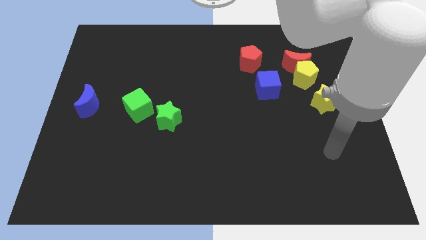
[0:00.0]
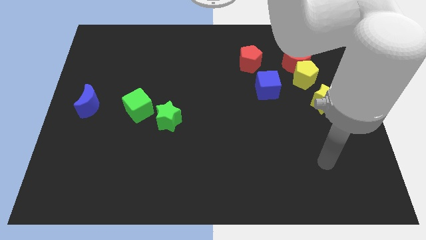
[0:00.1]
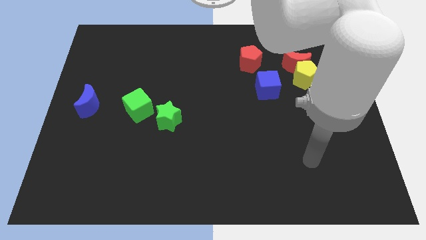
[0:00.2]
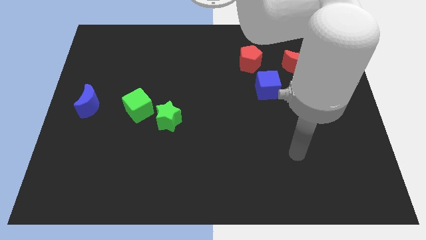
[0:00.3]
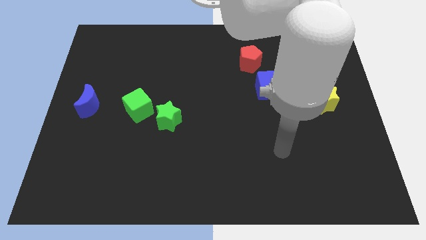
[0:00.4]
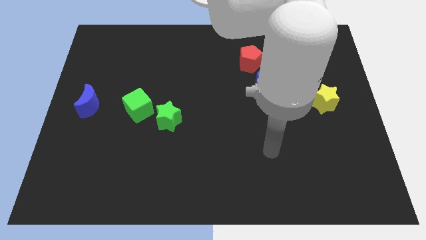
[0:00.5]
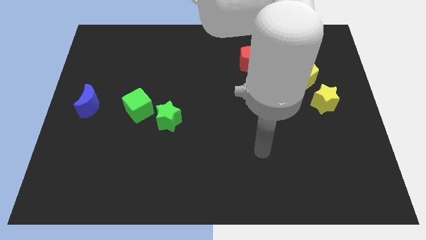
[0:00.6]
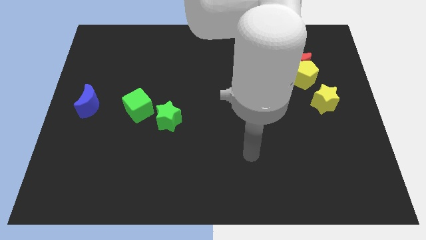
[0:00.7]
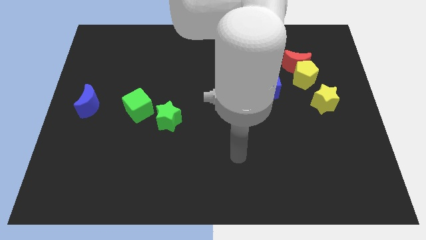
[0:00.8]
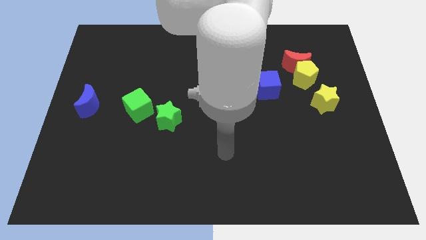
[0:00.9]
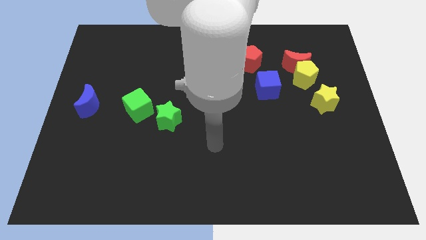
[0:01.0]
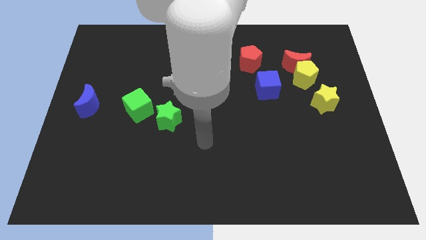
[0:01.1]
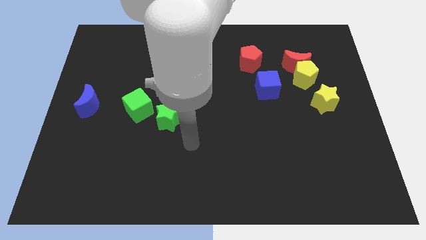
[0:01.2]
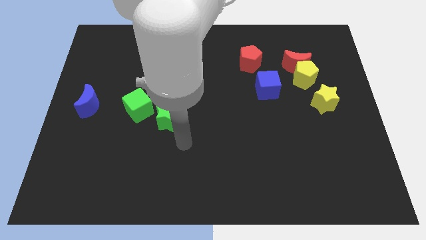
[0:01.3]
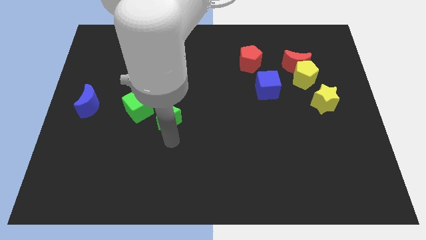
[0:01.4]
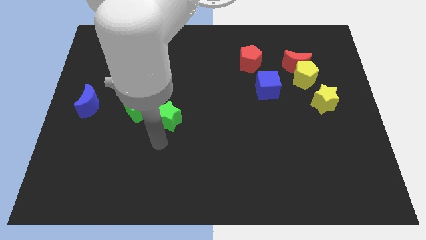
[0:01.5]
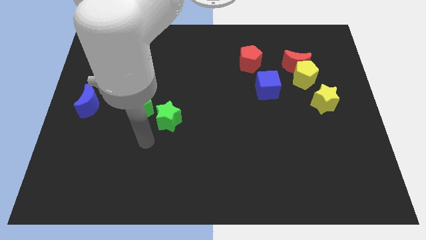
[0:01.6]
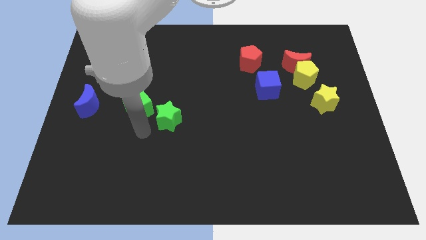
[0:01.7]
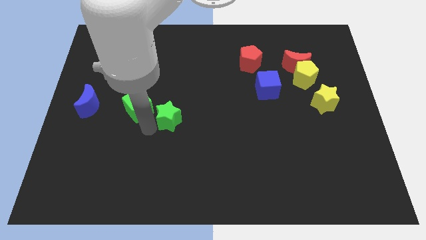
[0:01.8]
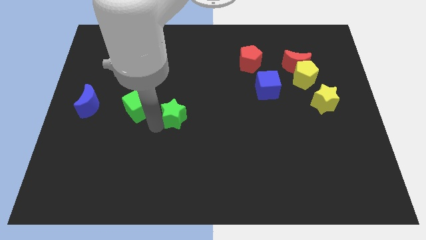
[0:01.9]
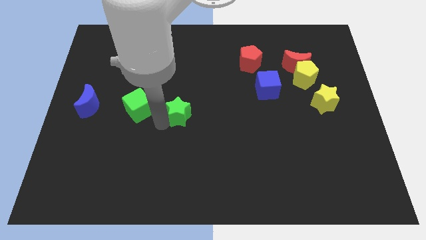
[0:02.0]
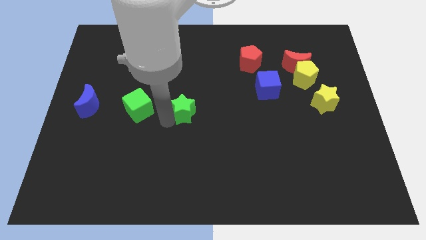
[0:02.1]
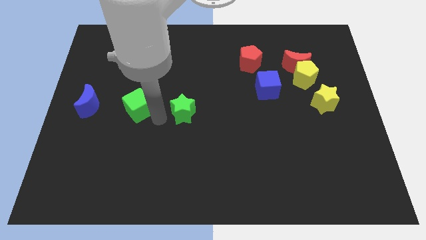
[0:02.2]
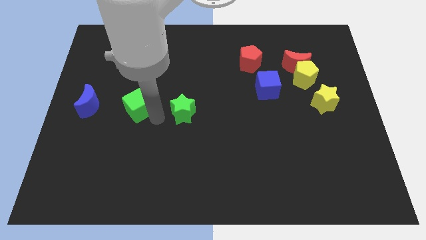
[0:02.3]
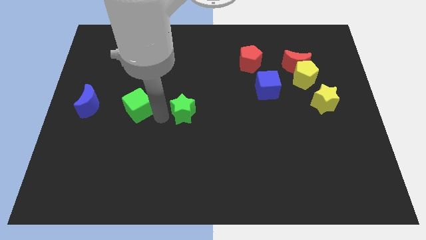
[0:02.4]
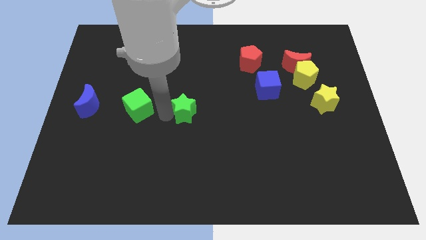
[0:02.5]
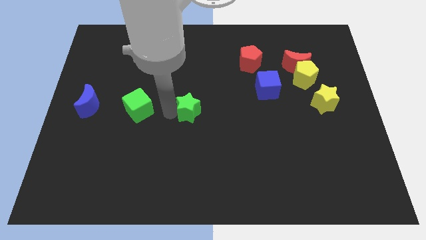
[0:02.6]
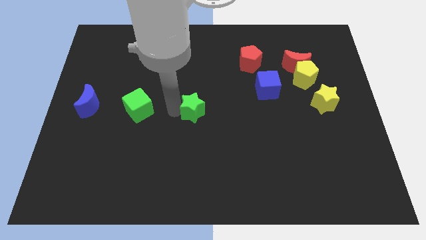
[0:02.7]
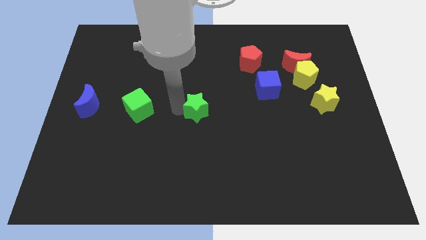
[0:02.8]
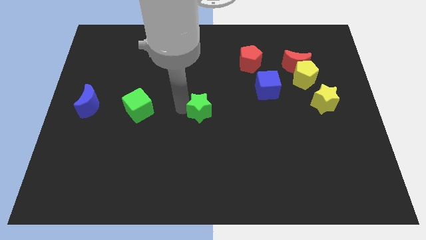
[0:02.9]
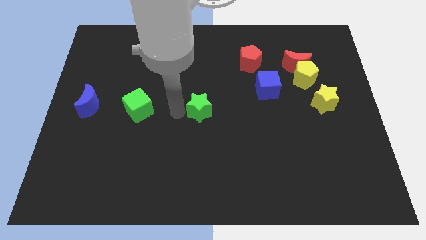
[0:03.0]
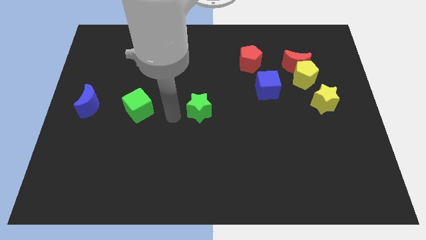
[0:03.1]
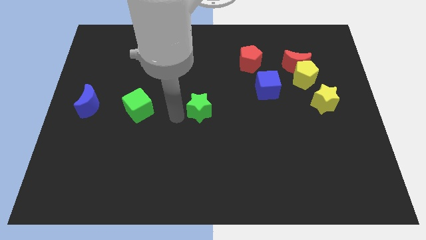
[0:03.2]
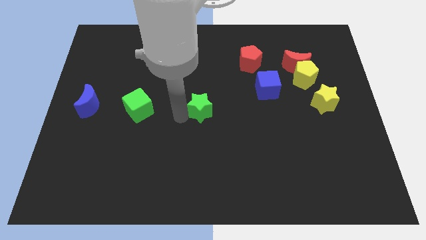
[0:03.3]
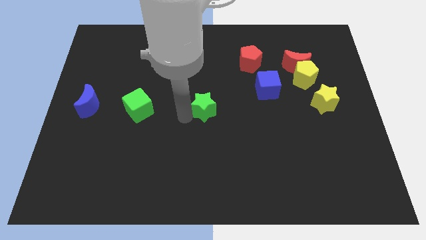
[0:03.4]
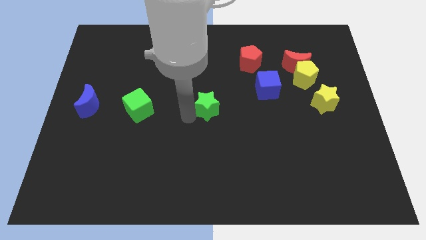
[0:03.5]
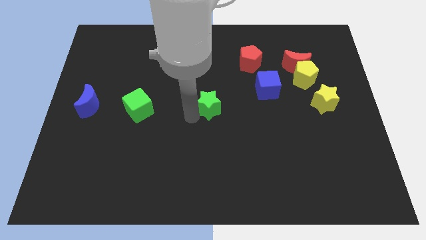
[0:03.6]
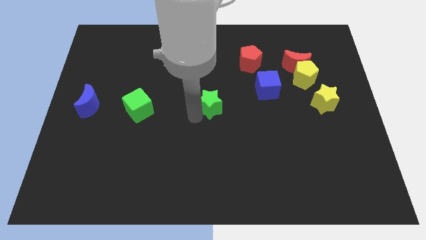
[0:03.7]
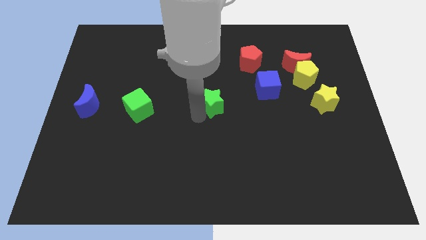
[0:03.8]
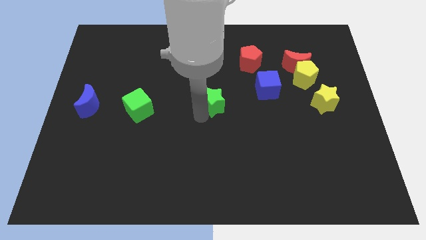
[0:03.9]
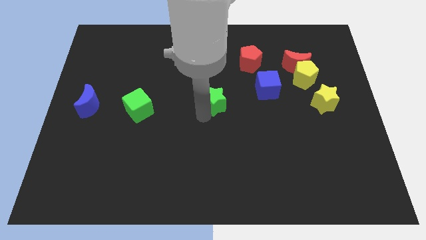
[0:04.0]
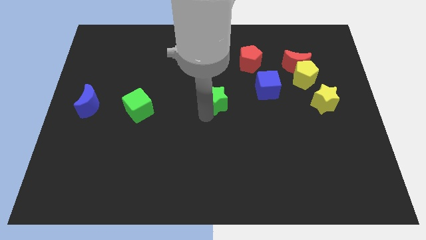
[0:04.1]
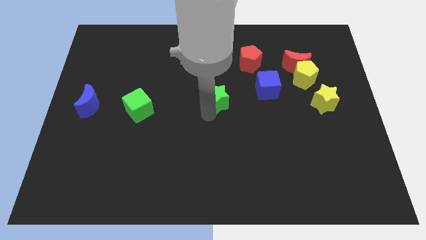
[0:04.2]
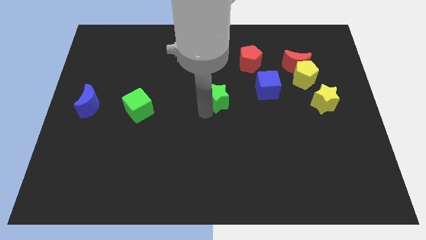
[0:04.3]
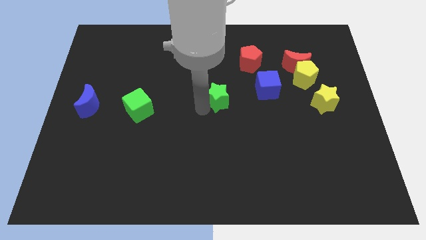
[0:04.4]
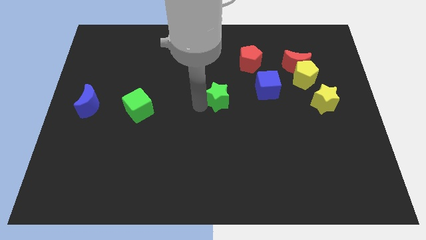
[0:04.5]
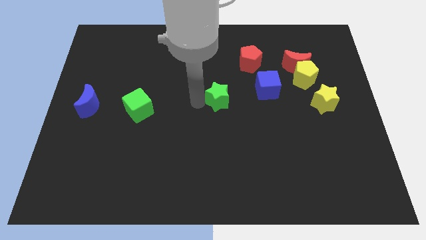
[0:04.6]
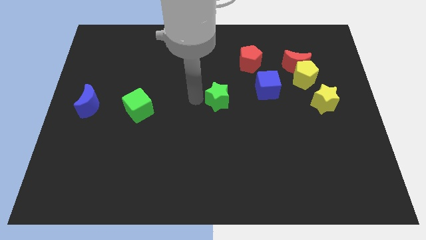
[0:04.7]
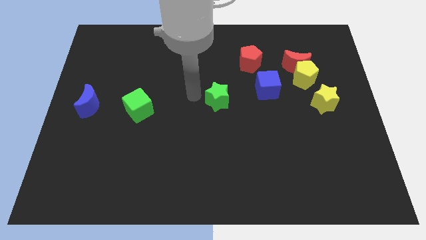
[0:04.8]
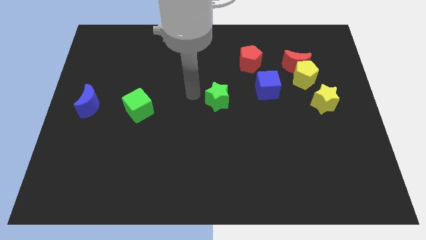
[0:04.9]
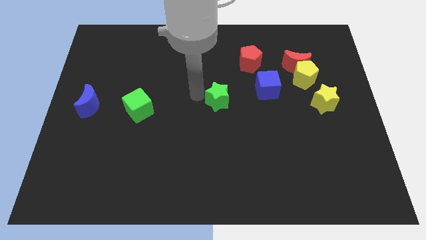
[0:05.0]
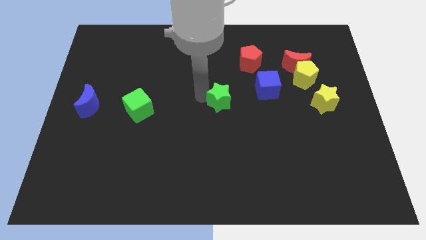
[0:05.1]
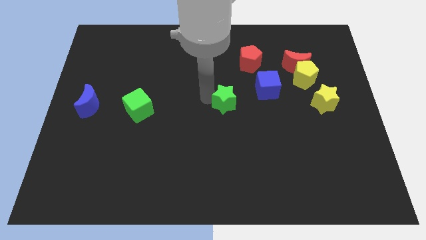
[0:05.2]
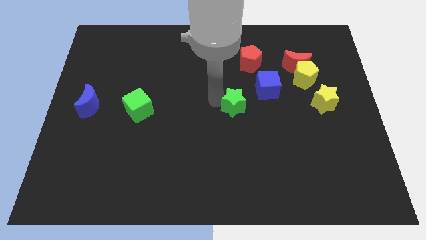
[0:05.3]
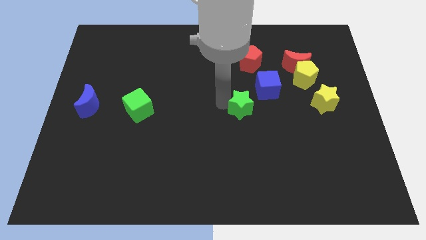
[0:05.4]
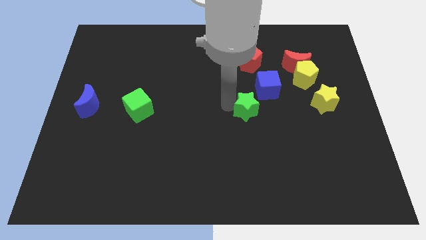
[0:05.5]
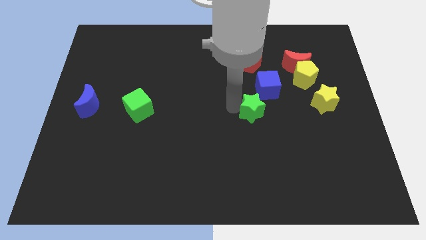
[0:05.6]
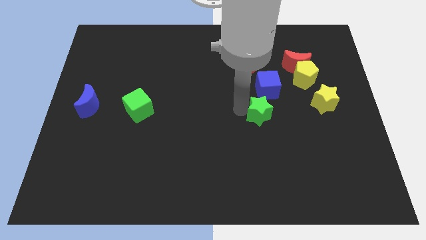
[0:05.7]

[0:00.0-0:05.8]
move the green star right

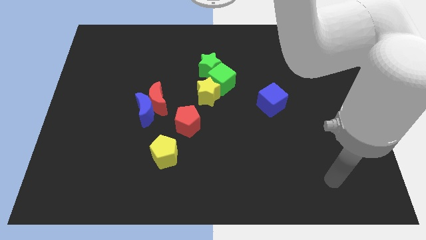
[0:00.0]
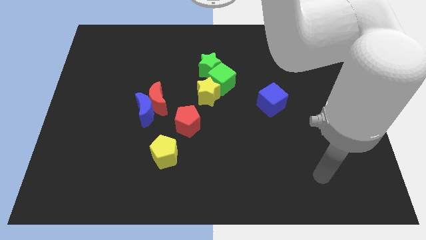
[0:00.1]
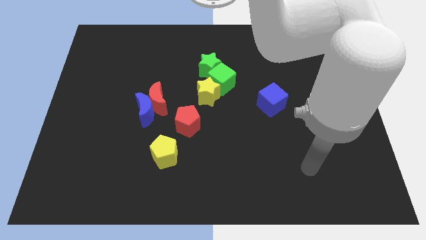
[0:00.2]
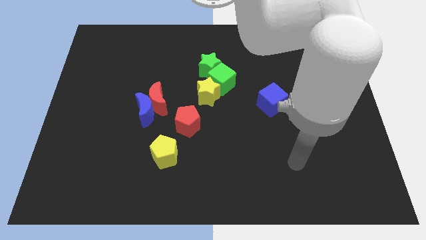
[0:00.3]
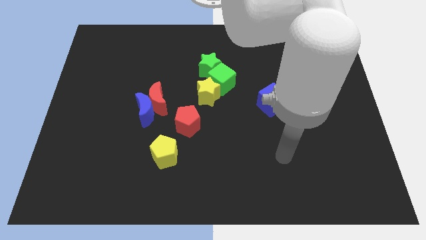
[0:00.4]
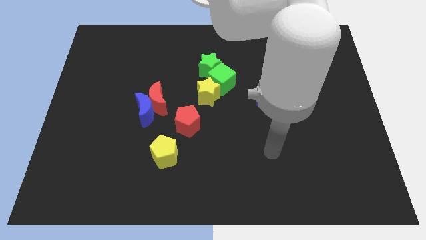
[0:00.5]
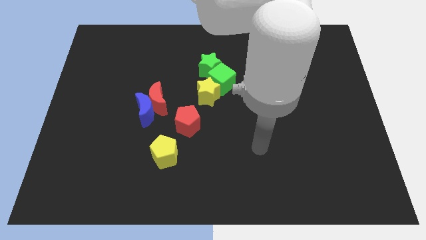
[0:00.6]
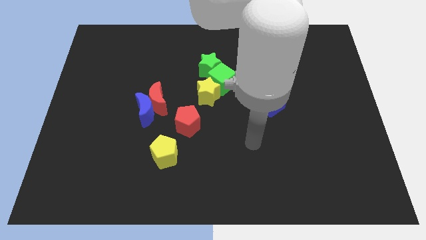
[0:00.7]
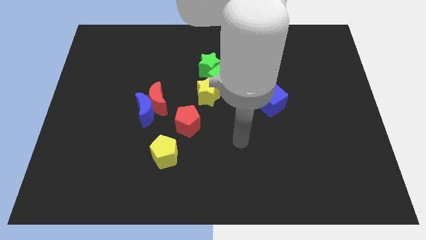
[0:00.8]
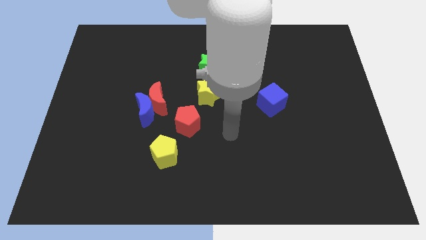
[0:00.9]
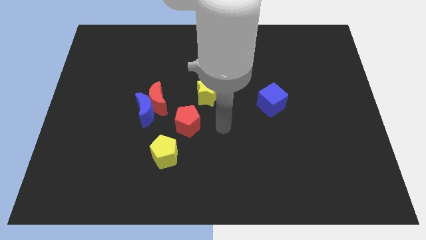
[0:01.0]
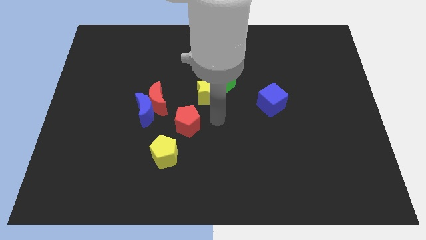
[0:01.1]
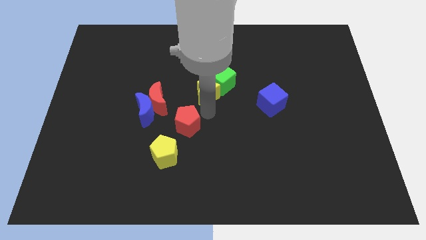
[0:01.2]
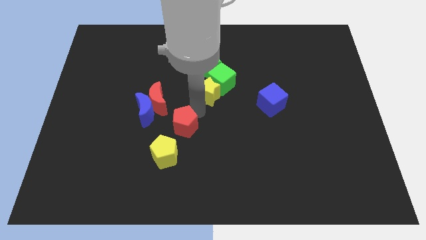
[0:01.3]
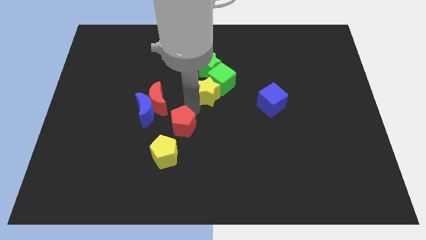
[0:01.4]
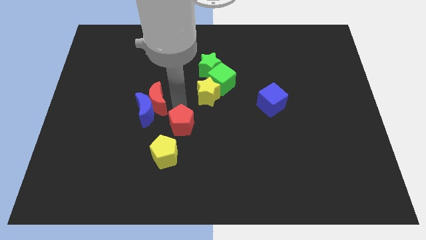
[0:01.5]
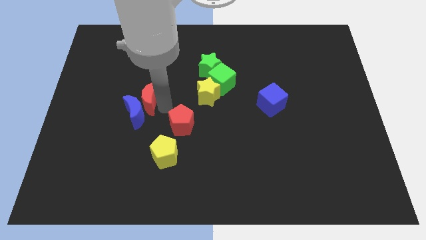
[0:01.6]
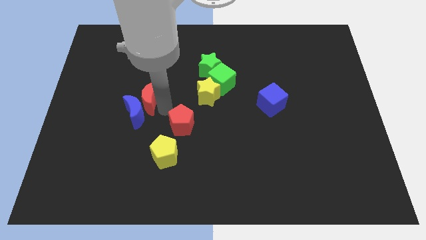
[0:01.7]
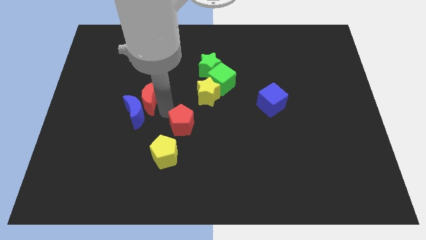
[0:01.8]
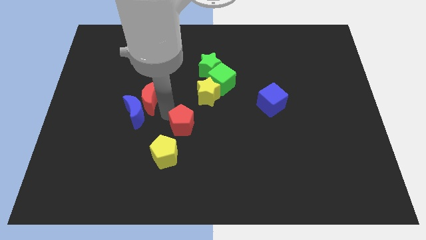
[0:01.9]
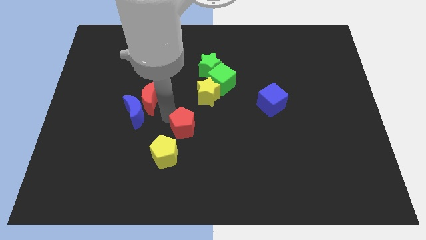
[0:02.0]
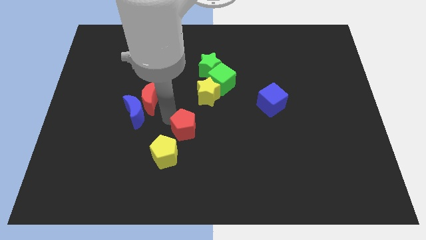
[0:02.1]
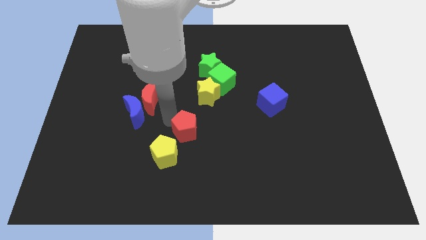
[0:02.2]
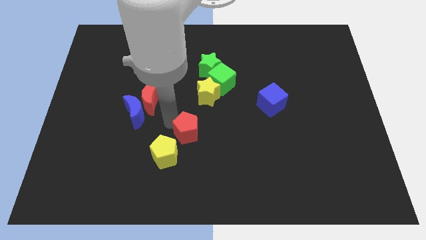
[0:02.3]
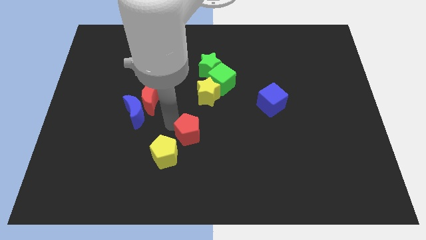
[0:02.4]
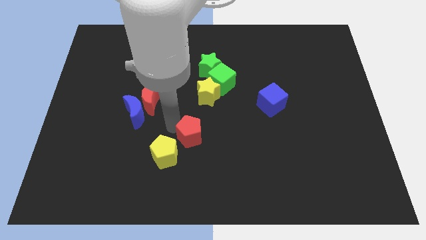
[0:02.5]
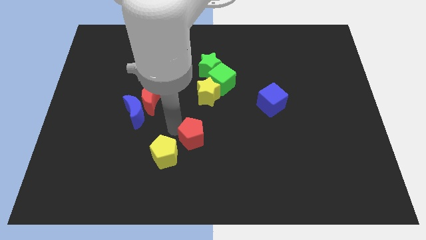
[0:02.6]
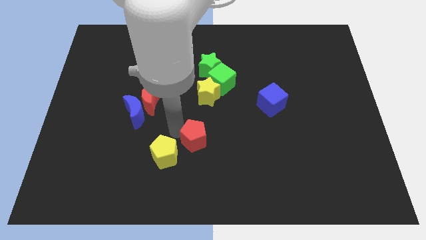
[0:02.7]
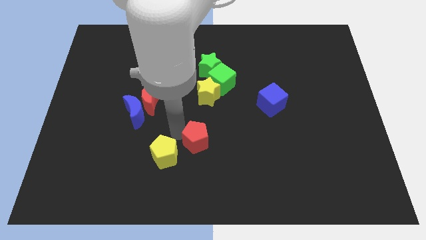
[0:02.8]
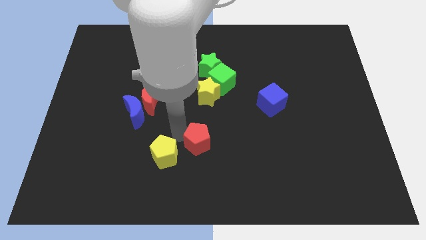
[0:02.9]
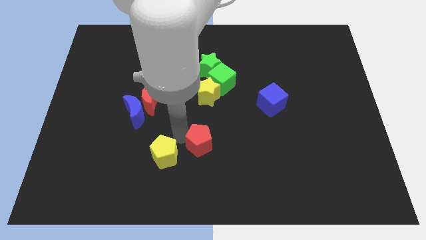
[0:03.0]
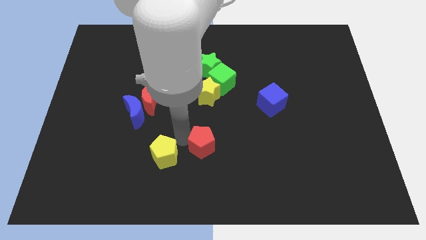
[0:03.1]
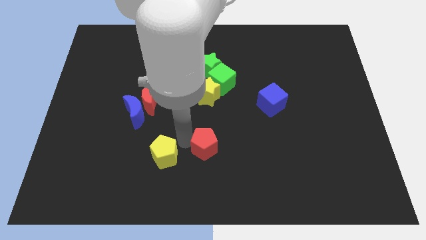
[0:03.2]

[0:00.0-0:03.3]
slightly move the red pentagon down and then to the right
